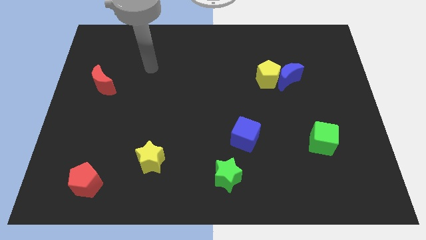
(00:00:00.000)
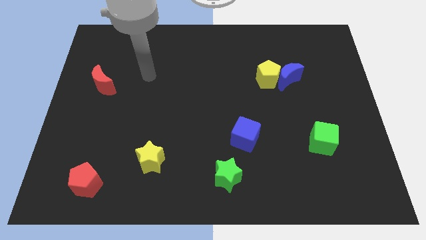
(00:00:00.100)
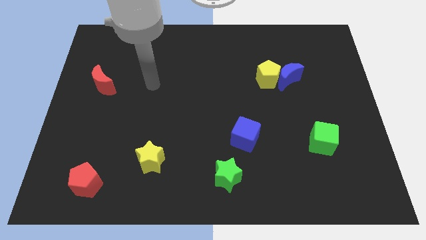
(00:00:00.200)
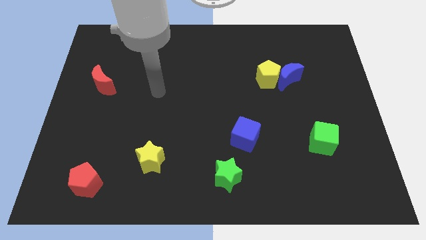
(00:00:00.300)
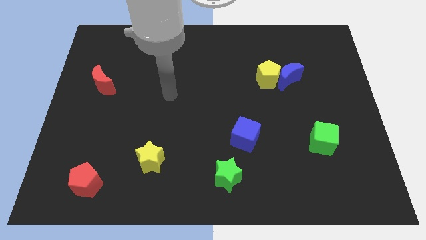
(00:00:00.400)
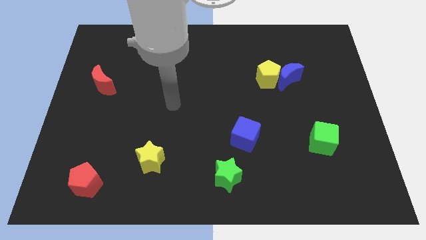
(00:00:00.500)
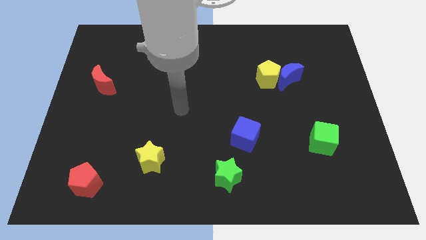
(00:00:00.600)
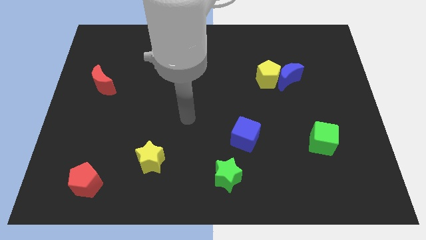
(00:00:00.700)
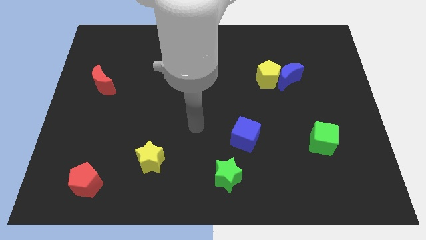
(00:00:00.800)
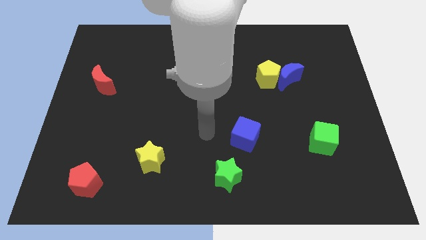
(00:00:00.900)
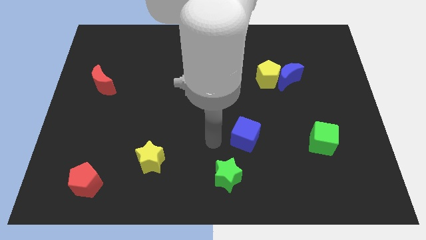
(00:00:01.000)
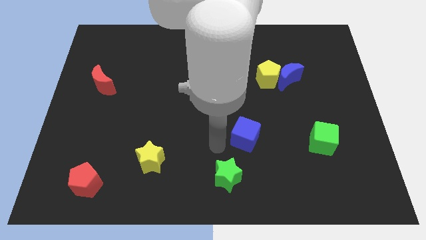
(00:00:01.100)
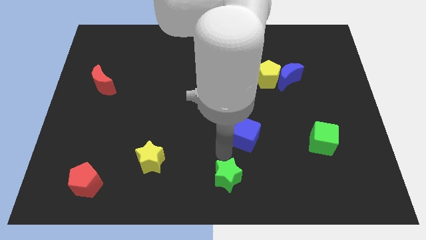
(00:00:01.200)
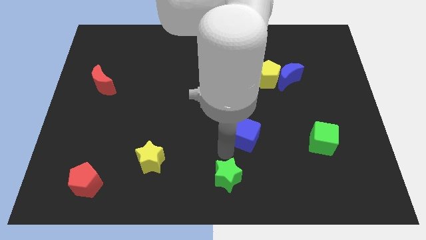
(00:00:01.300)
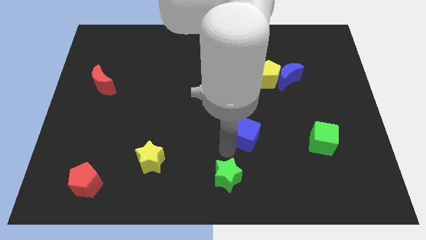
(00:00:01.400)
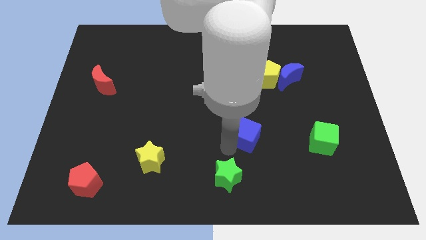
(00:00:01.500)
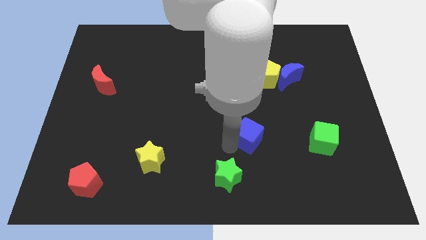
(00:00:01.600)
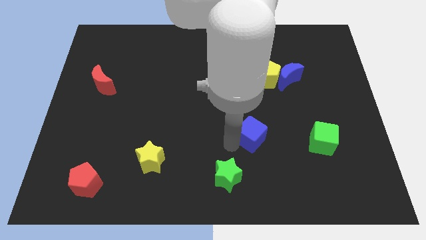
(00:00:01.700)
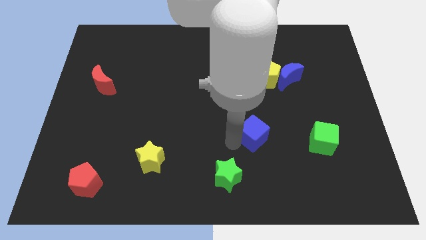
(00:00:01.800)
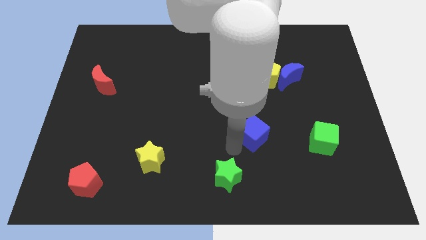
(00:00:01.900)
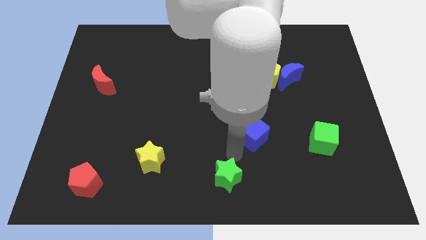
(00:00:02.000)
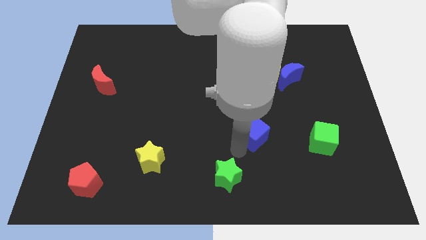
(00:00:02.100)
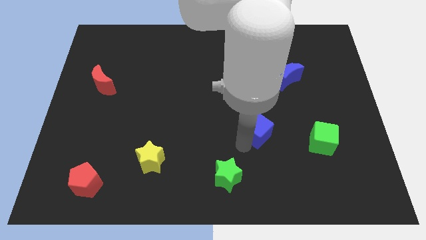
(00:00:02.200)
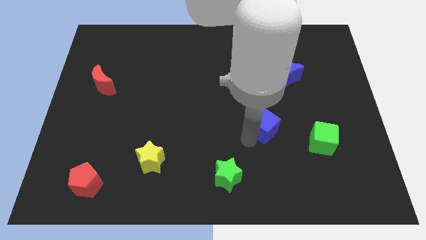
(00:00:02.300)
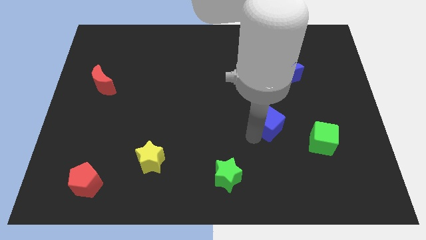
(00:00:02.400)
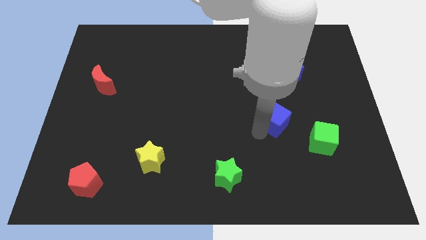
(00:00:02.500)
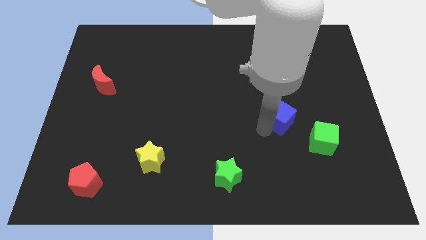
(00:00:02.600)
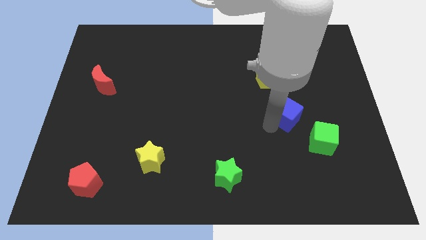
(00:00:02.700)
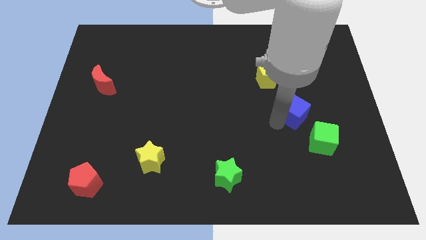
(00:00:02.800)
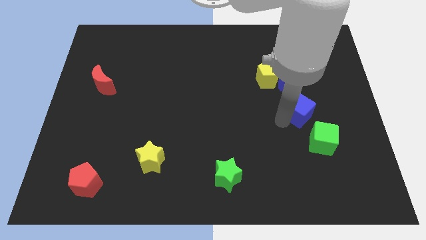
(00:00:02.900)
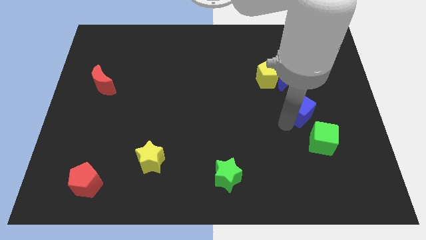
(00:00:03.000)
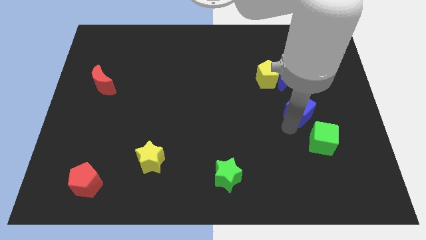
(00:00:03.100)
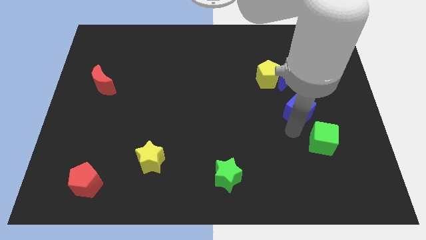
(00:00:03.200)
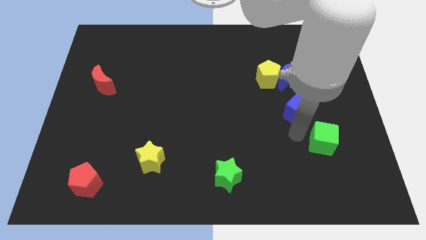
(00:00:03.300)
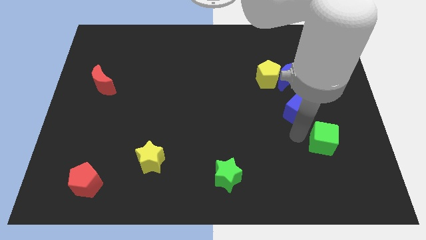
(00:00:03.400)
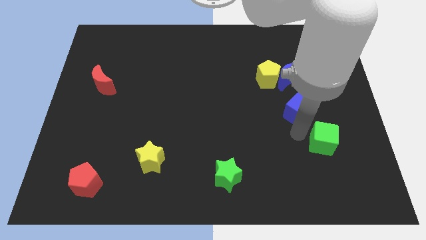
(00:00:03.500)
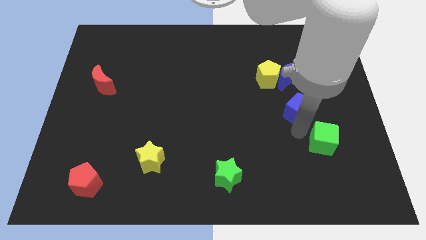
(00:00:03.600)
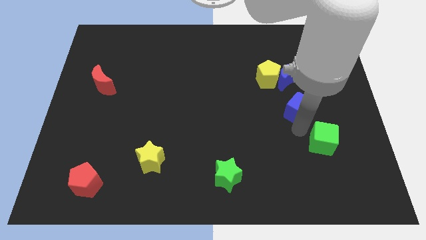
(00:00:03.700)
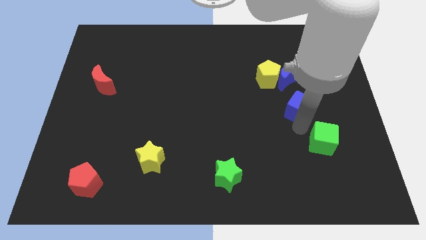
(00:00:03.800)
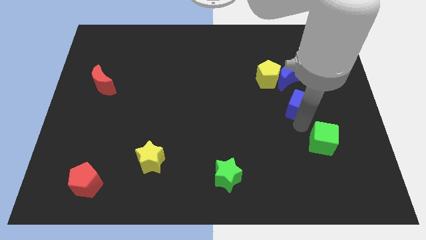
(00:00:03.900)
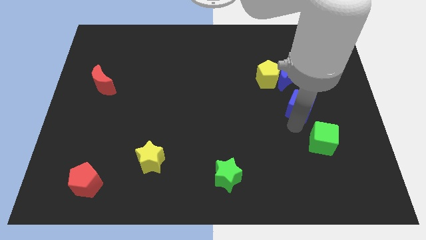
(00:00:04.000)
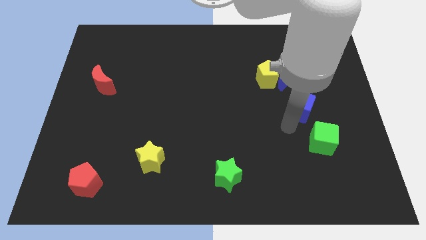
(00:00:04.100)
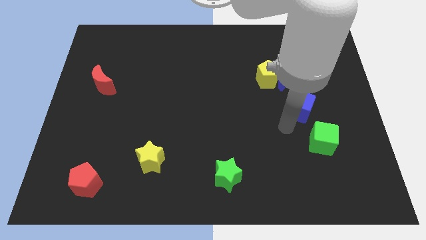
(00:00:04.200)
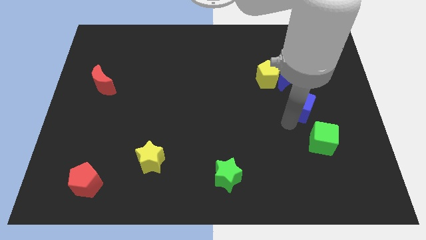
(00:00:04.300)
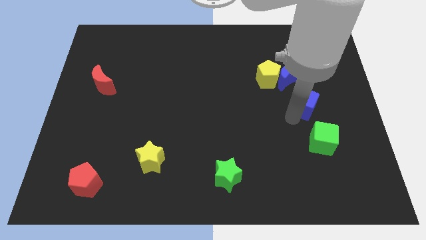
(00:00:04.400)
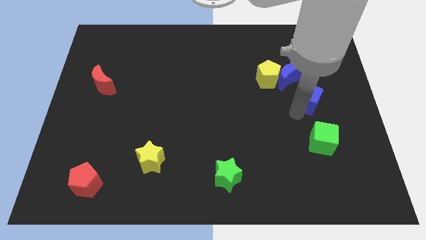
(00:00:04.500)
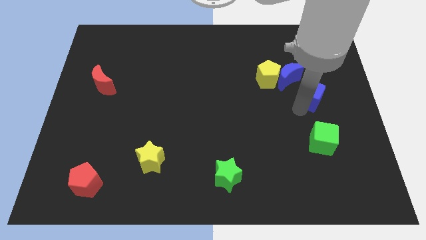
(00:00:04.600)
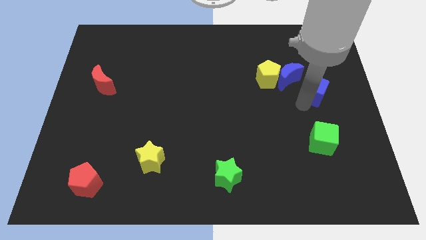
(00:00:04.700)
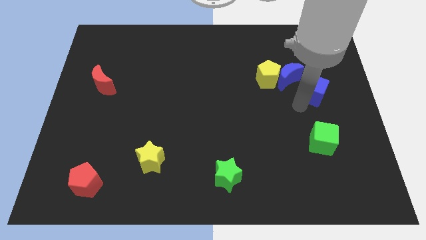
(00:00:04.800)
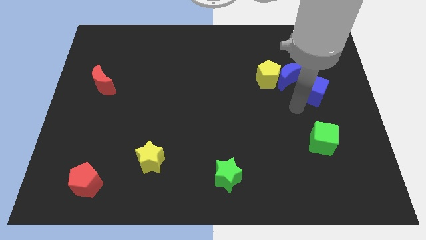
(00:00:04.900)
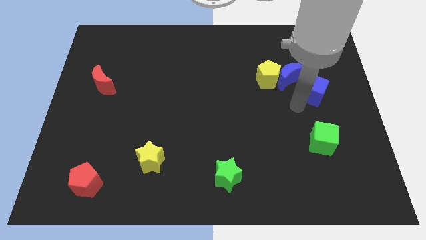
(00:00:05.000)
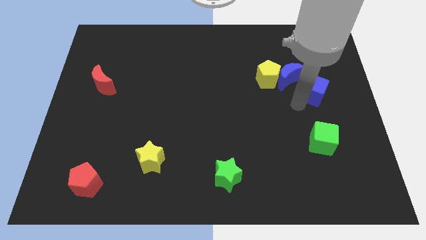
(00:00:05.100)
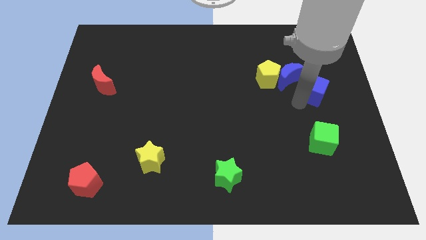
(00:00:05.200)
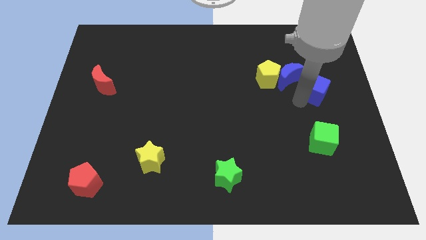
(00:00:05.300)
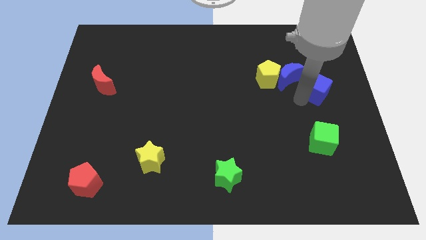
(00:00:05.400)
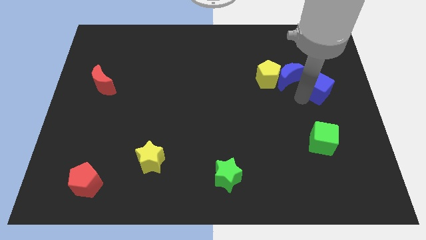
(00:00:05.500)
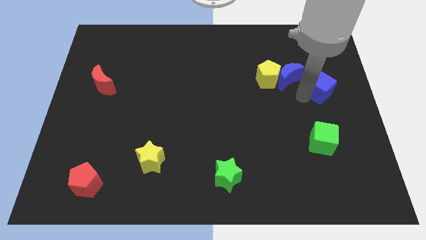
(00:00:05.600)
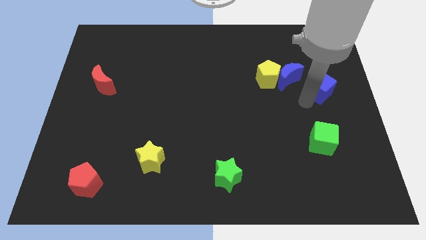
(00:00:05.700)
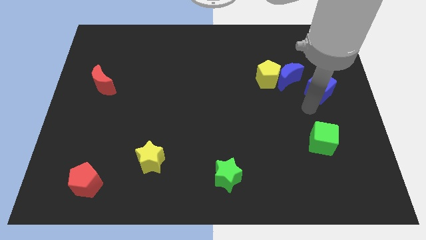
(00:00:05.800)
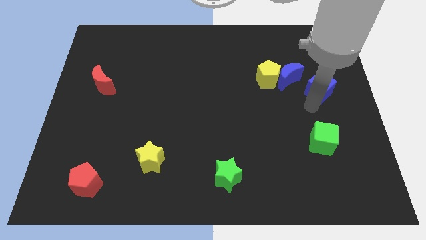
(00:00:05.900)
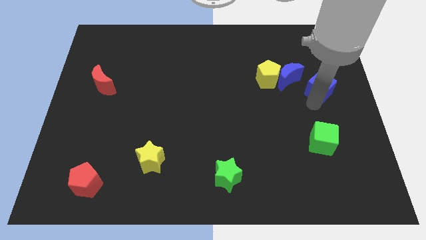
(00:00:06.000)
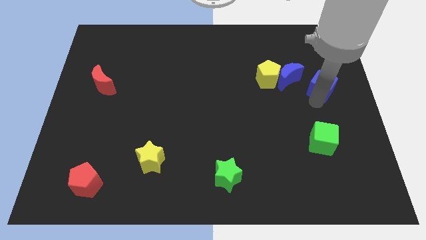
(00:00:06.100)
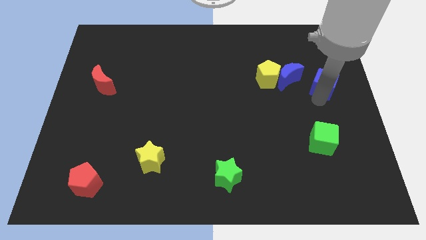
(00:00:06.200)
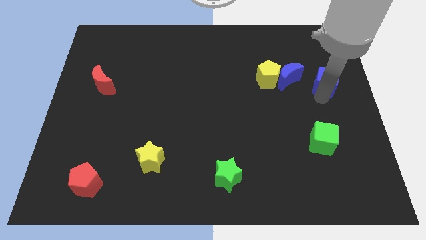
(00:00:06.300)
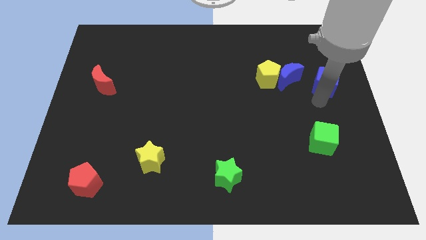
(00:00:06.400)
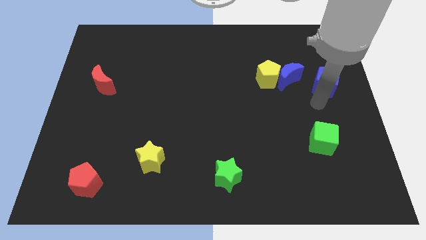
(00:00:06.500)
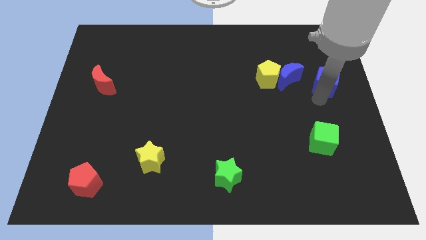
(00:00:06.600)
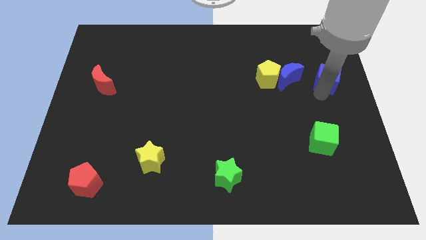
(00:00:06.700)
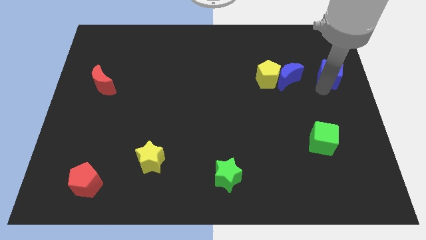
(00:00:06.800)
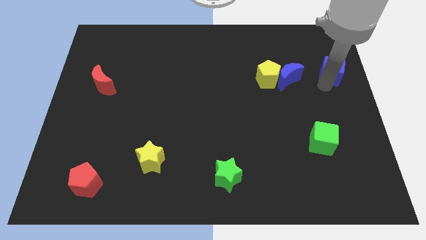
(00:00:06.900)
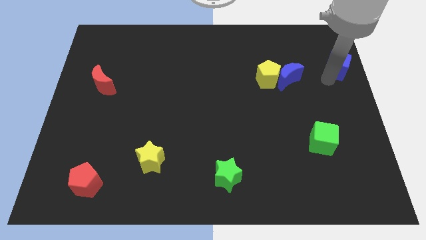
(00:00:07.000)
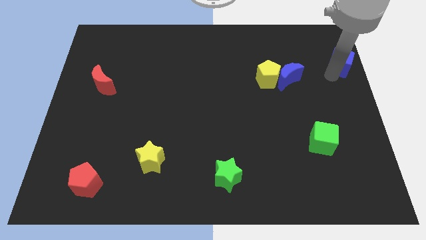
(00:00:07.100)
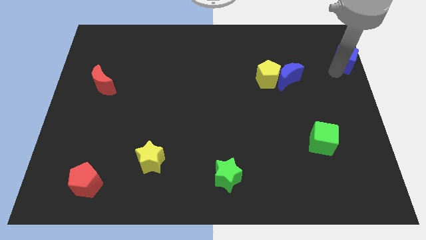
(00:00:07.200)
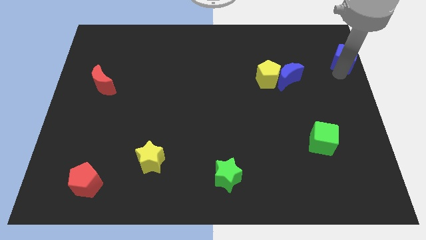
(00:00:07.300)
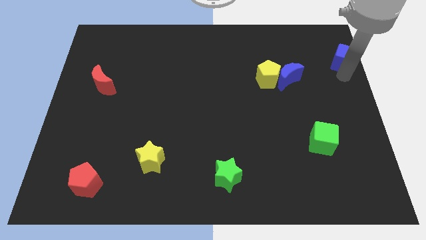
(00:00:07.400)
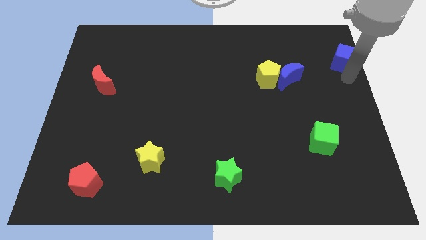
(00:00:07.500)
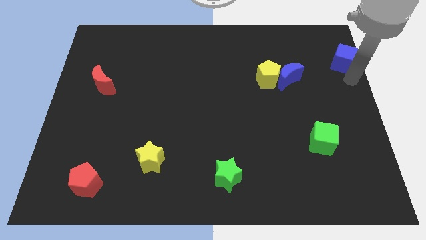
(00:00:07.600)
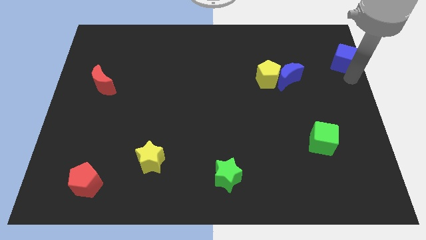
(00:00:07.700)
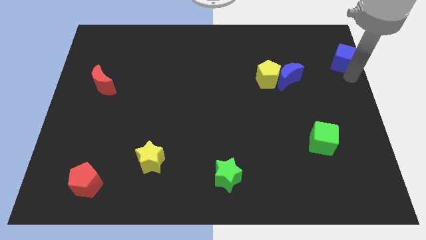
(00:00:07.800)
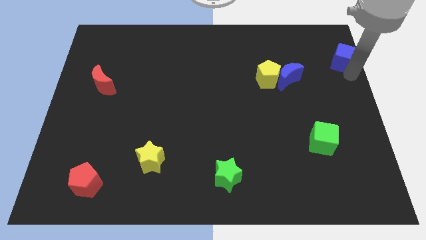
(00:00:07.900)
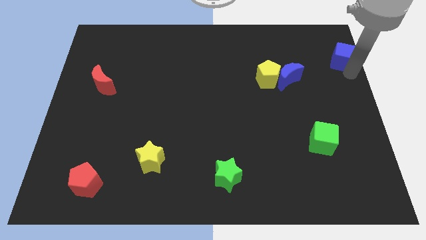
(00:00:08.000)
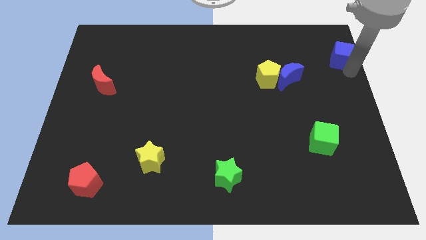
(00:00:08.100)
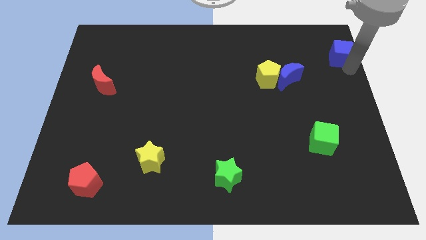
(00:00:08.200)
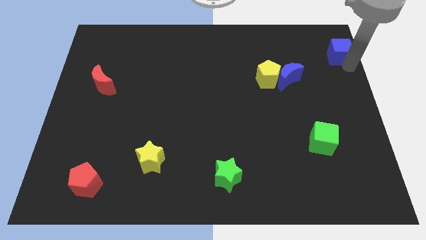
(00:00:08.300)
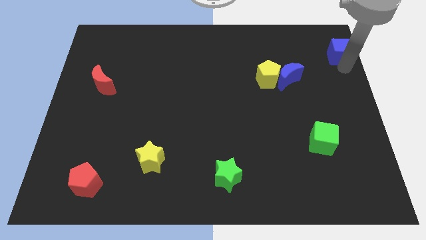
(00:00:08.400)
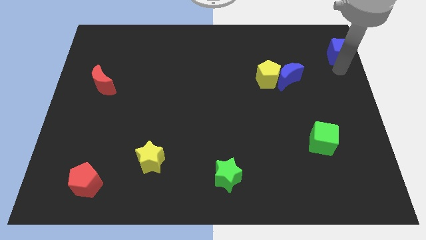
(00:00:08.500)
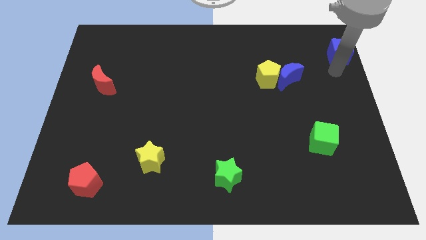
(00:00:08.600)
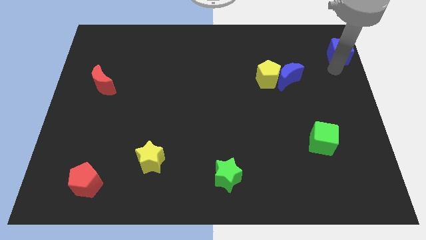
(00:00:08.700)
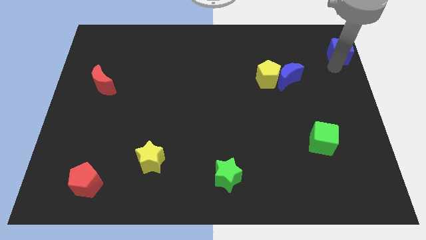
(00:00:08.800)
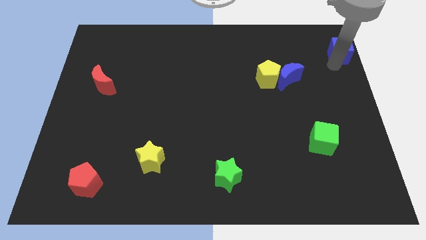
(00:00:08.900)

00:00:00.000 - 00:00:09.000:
push the blue cube to the upper right corner
